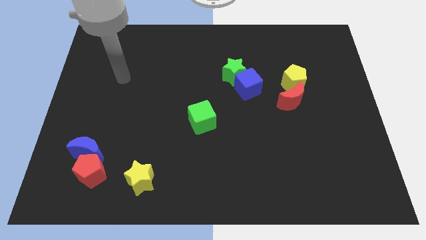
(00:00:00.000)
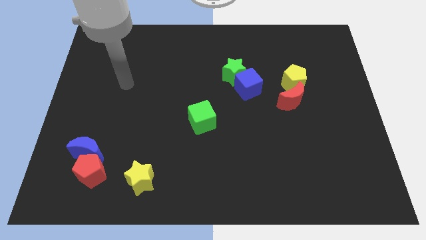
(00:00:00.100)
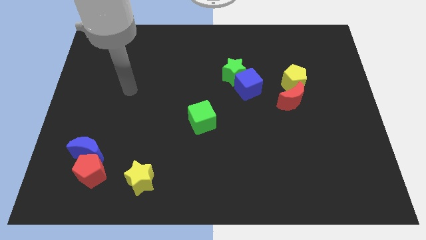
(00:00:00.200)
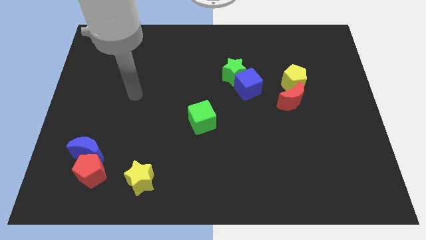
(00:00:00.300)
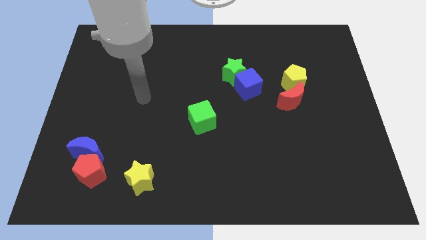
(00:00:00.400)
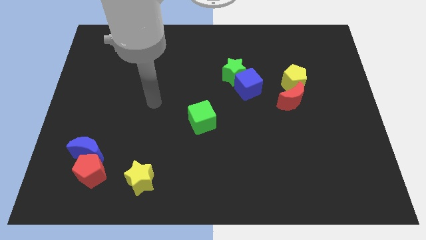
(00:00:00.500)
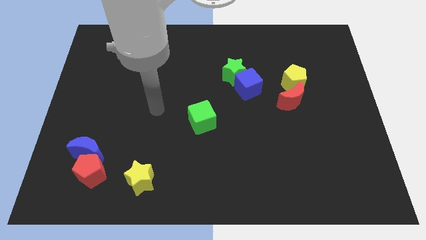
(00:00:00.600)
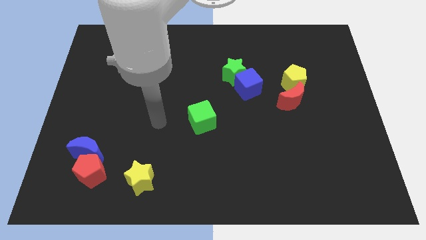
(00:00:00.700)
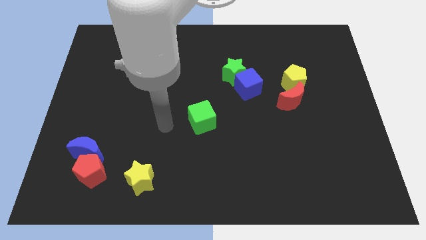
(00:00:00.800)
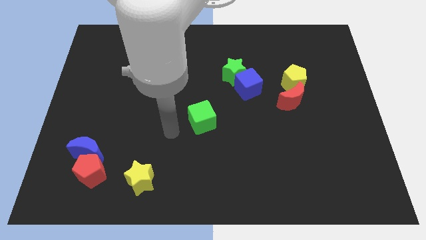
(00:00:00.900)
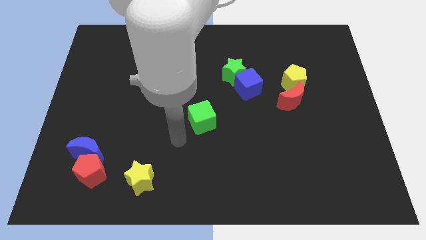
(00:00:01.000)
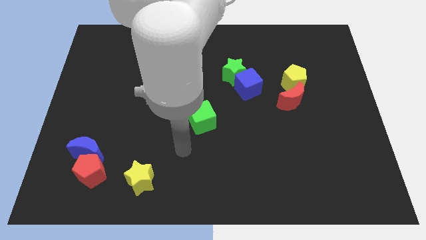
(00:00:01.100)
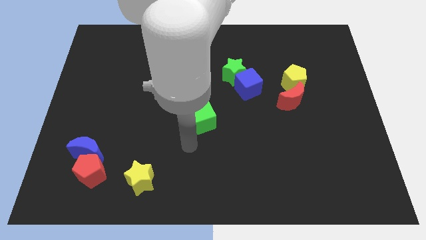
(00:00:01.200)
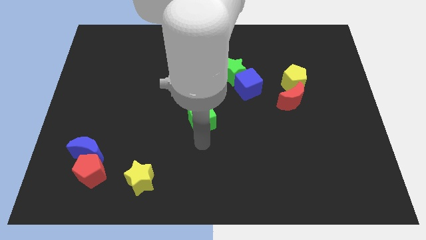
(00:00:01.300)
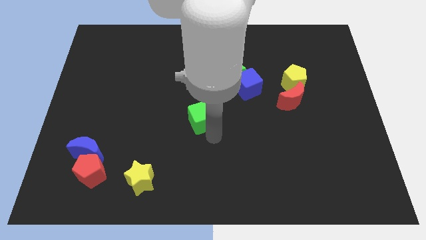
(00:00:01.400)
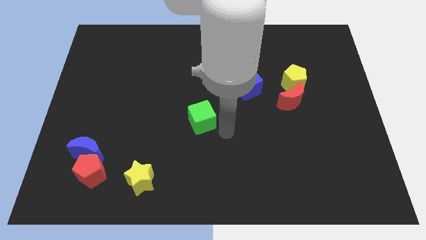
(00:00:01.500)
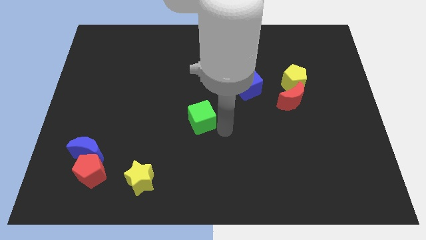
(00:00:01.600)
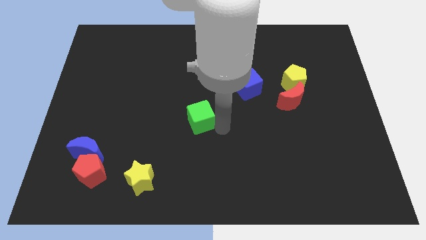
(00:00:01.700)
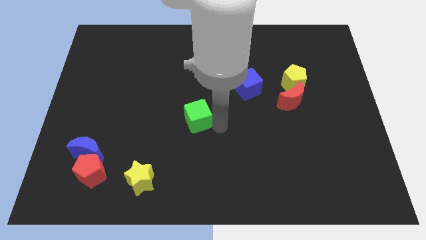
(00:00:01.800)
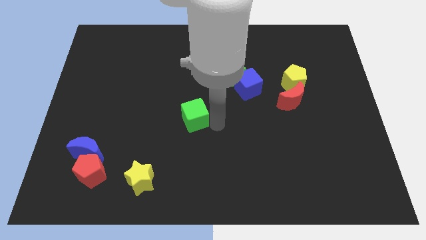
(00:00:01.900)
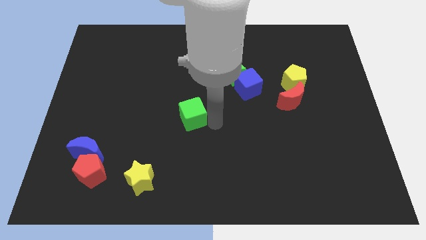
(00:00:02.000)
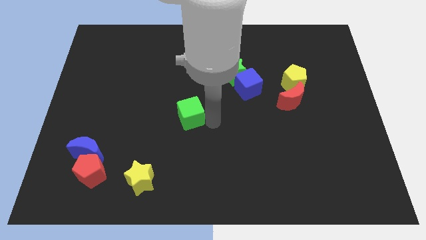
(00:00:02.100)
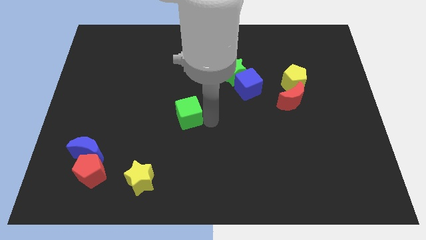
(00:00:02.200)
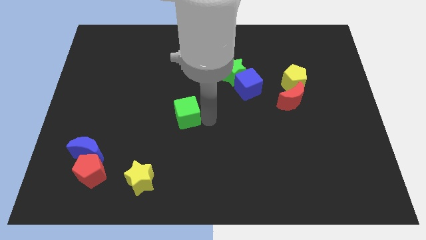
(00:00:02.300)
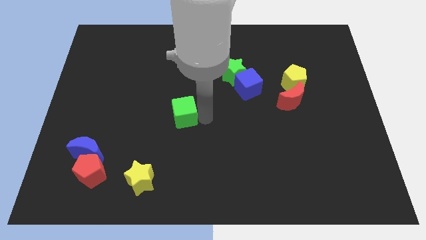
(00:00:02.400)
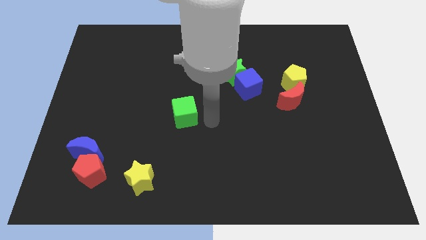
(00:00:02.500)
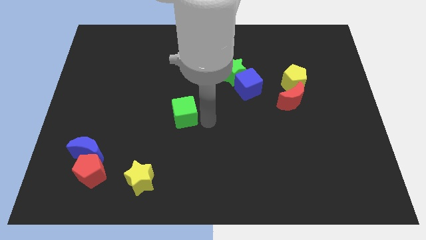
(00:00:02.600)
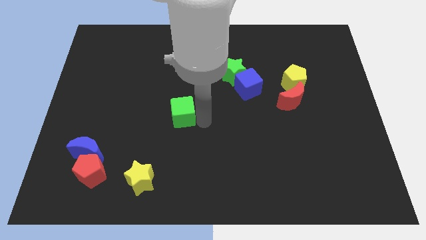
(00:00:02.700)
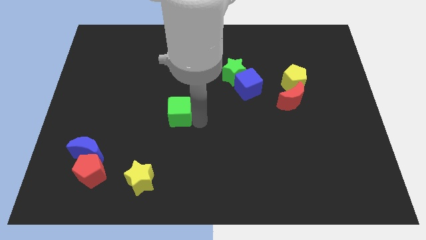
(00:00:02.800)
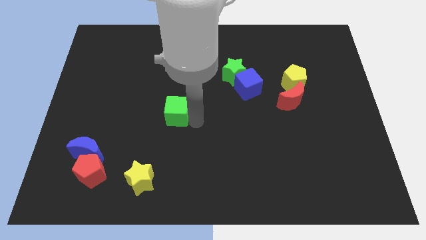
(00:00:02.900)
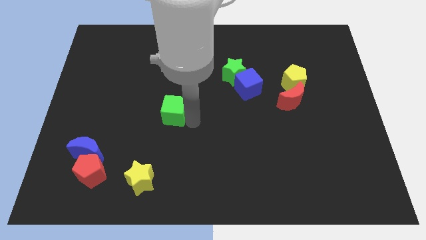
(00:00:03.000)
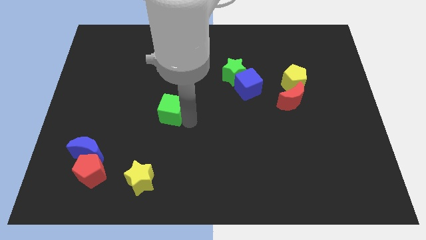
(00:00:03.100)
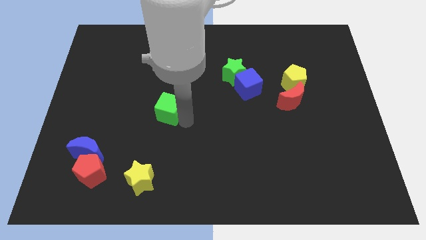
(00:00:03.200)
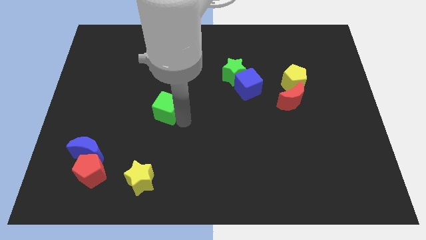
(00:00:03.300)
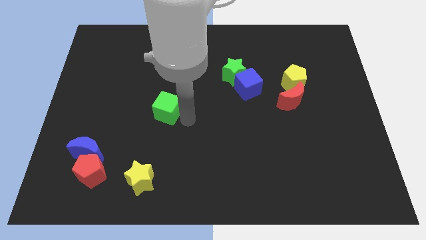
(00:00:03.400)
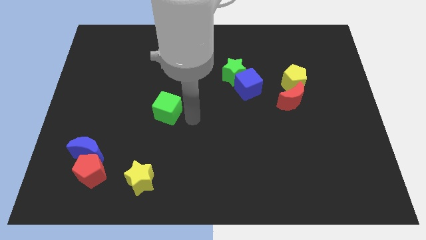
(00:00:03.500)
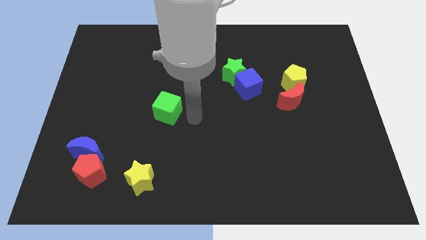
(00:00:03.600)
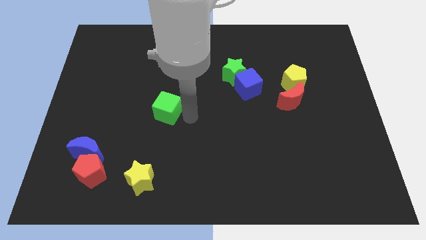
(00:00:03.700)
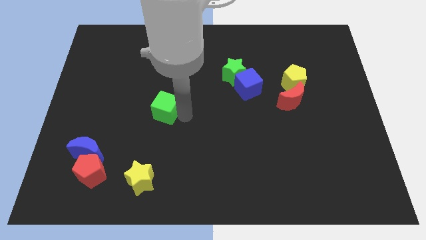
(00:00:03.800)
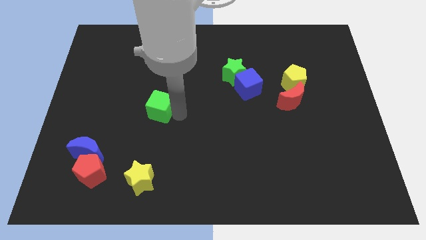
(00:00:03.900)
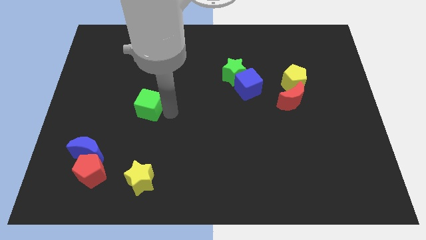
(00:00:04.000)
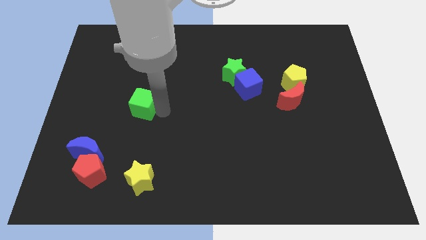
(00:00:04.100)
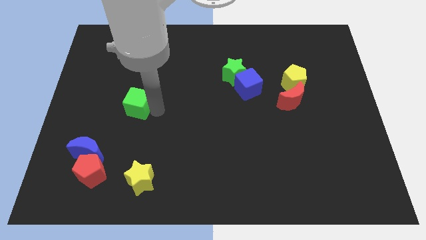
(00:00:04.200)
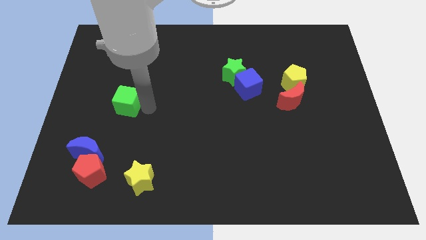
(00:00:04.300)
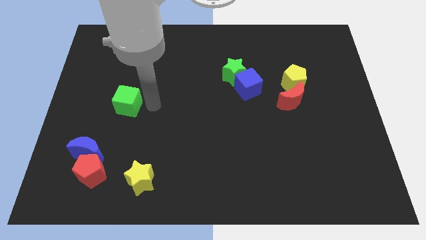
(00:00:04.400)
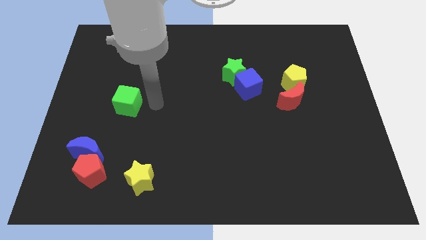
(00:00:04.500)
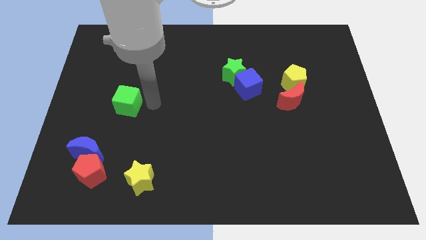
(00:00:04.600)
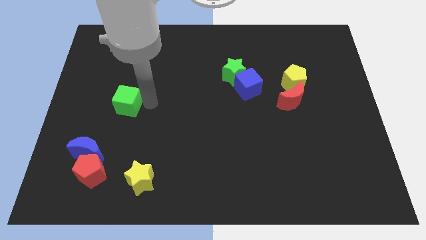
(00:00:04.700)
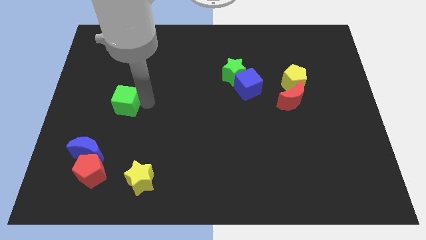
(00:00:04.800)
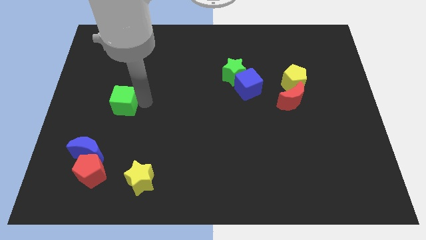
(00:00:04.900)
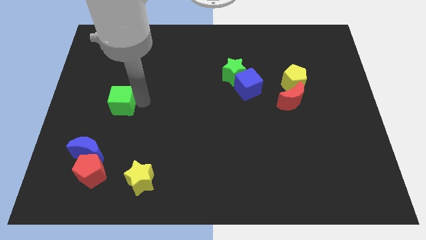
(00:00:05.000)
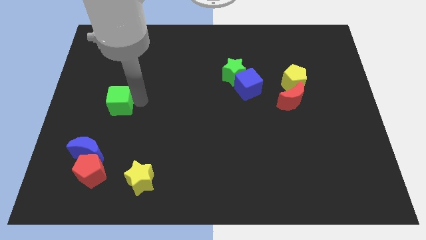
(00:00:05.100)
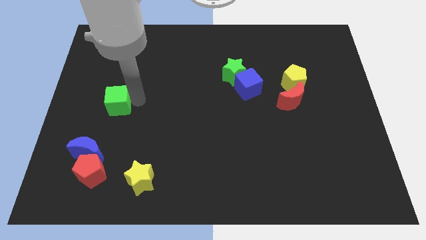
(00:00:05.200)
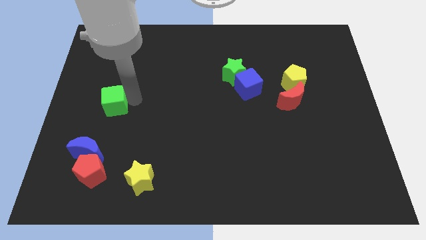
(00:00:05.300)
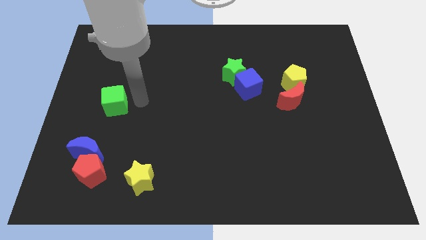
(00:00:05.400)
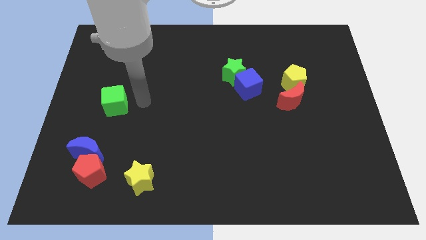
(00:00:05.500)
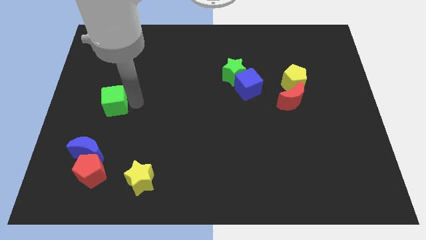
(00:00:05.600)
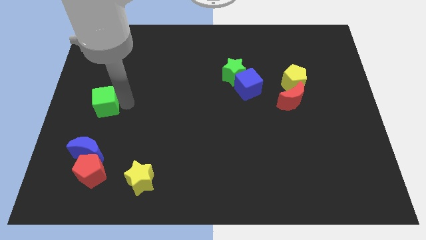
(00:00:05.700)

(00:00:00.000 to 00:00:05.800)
put the green cube to the left side of the board
